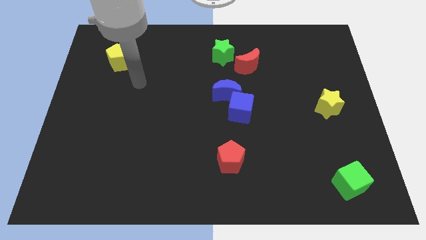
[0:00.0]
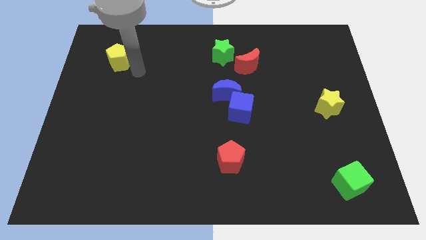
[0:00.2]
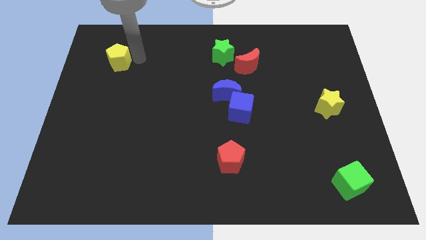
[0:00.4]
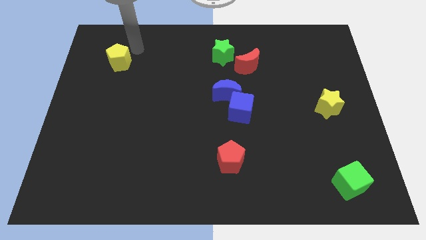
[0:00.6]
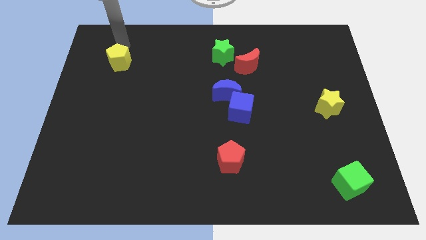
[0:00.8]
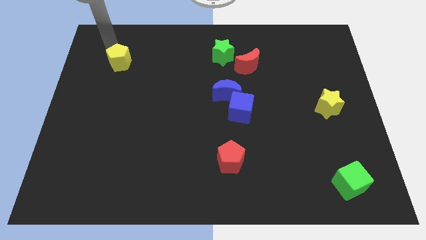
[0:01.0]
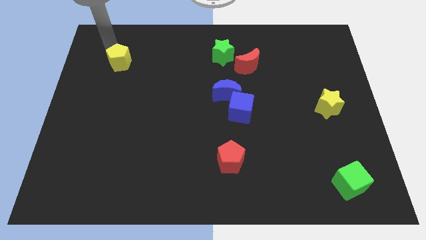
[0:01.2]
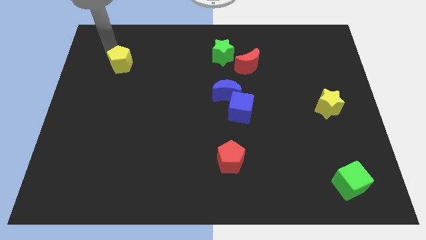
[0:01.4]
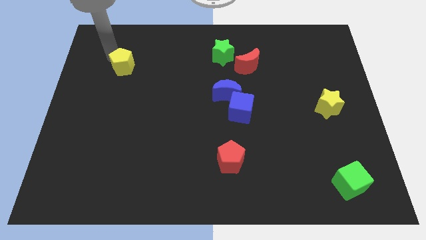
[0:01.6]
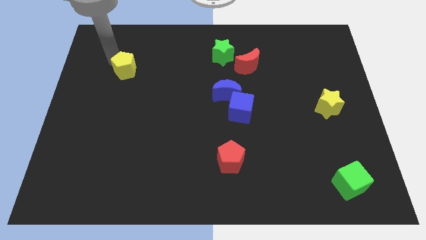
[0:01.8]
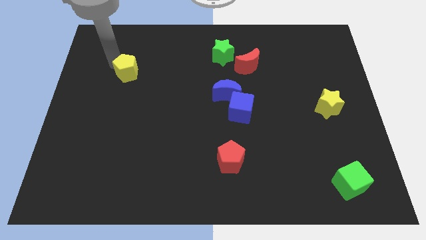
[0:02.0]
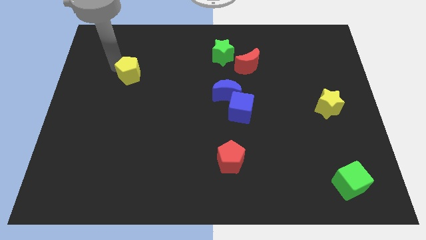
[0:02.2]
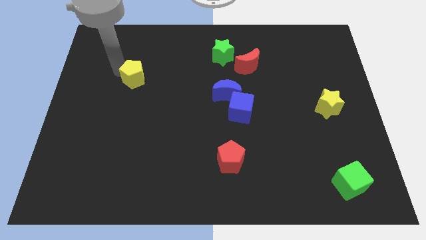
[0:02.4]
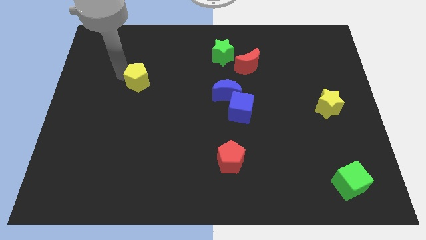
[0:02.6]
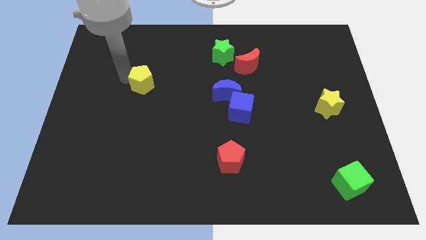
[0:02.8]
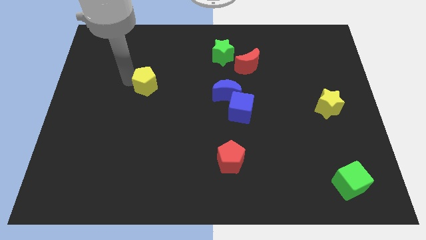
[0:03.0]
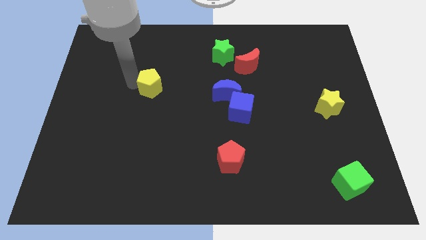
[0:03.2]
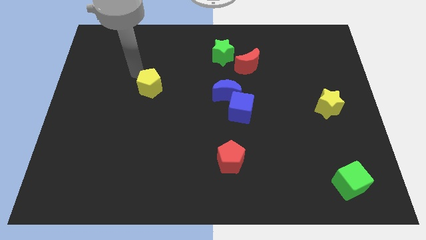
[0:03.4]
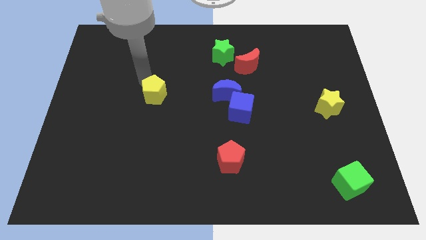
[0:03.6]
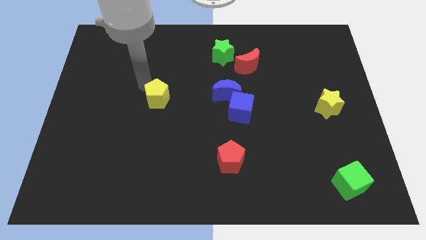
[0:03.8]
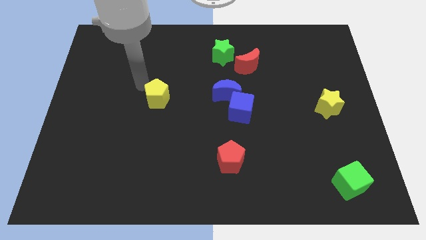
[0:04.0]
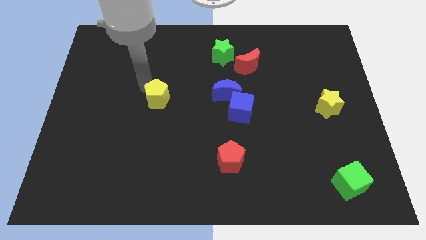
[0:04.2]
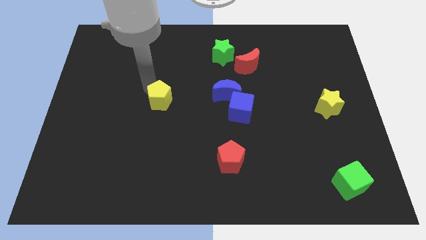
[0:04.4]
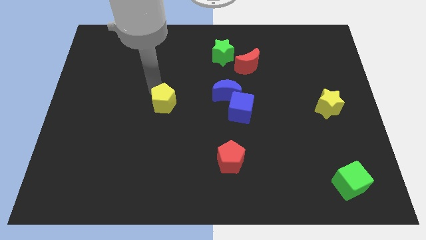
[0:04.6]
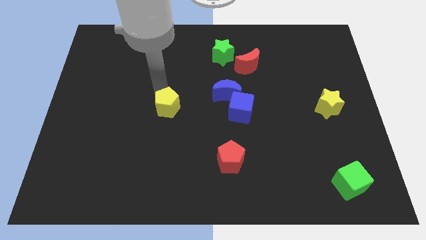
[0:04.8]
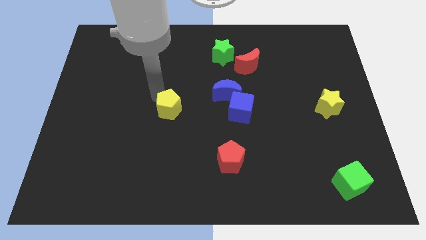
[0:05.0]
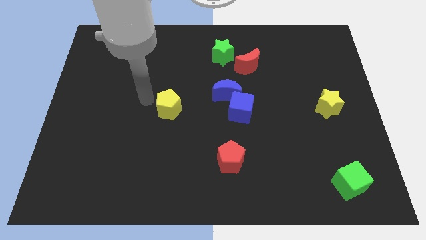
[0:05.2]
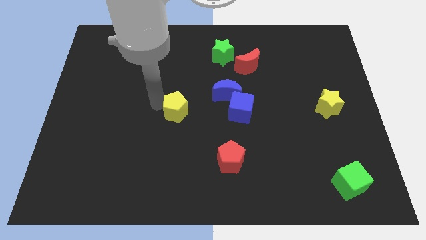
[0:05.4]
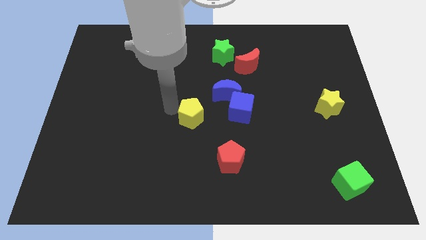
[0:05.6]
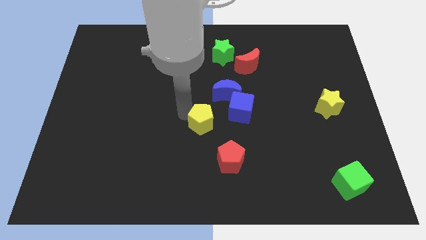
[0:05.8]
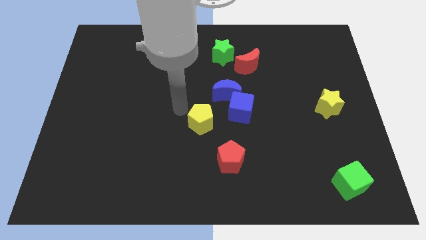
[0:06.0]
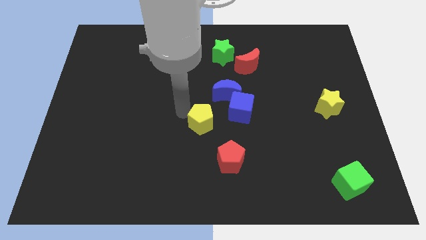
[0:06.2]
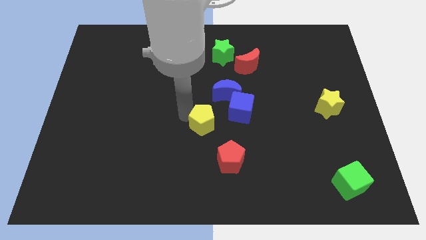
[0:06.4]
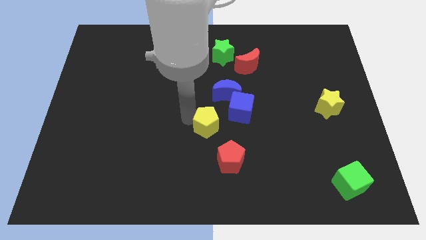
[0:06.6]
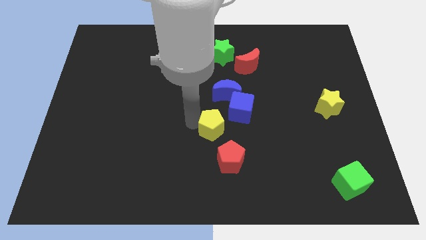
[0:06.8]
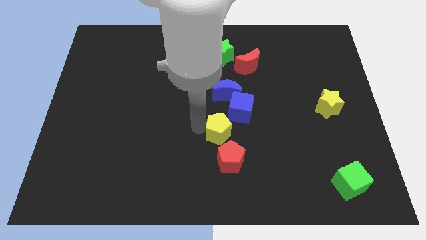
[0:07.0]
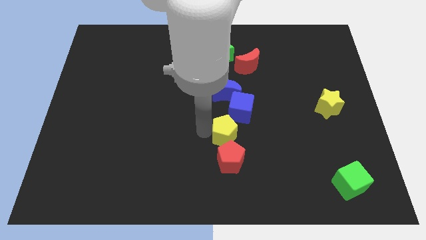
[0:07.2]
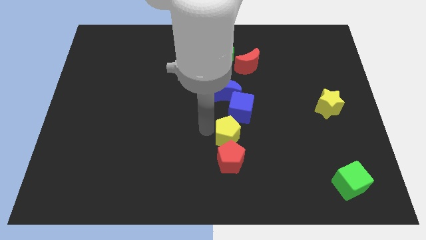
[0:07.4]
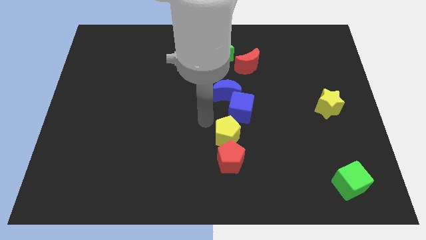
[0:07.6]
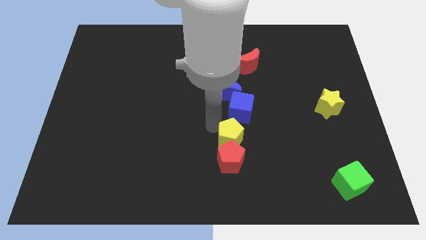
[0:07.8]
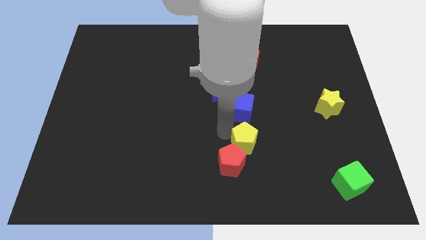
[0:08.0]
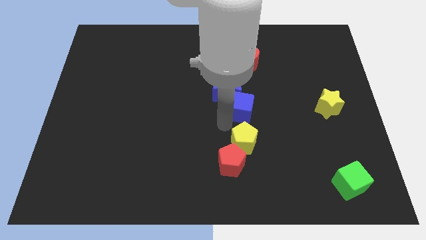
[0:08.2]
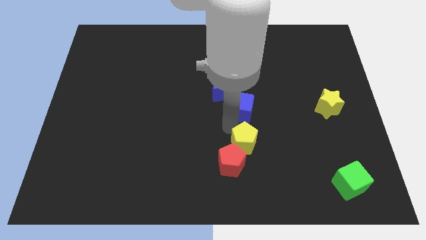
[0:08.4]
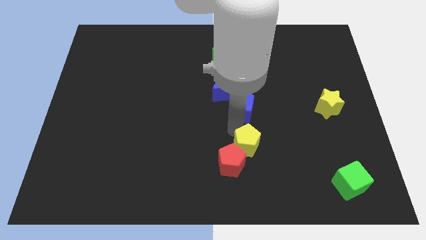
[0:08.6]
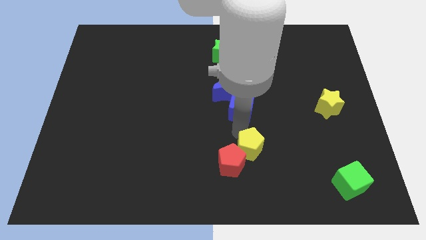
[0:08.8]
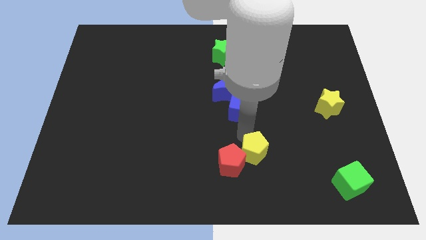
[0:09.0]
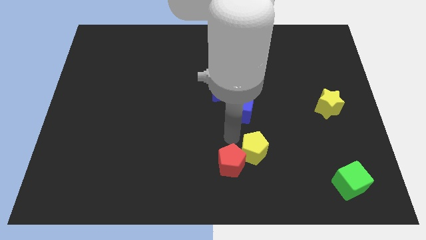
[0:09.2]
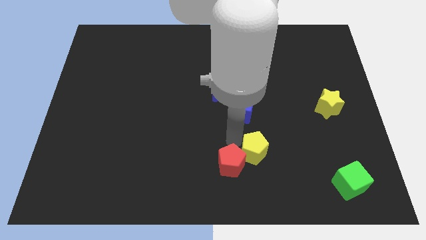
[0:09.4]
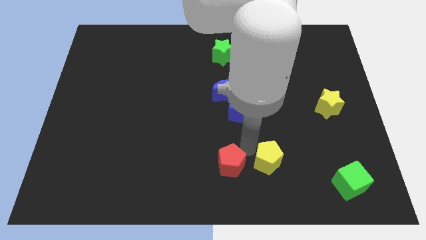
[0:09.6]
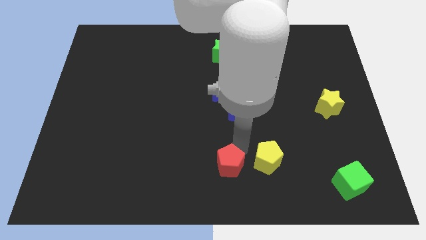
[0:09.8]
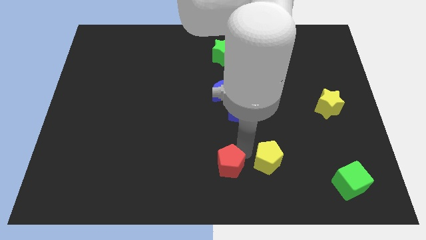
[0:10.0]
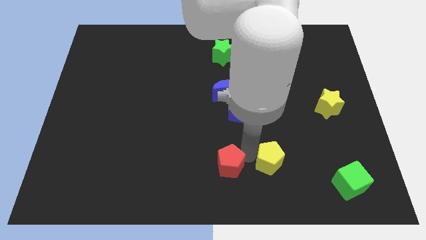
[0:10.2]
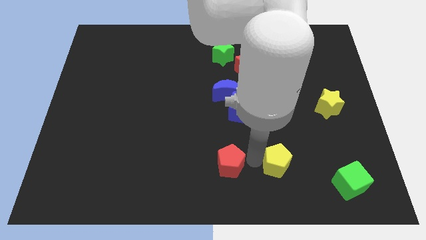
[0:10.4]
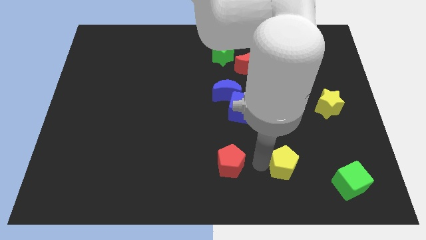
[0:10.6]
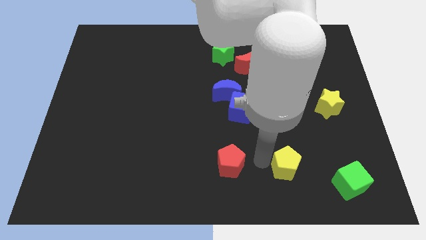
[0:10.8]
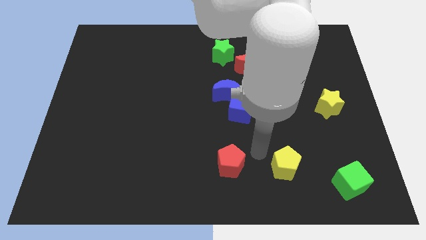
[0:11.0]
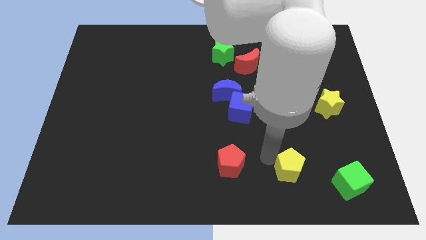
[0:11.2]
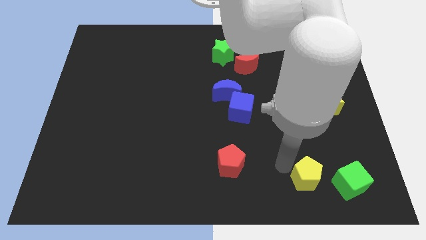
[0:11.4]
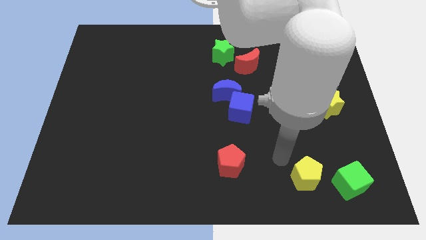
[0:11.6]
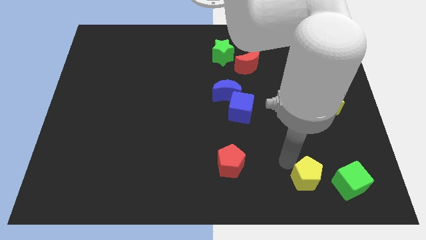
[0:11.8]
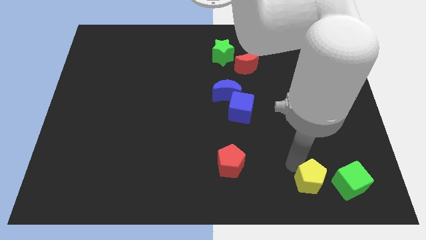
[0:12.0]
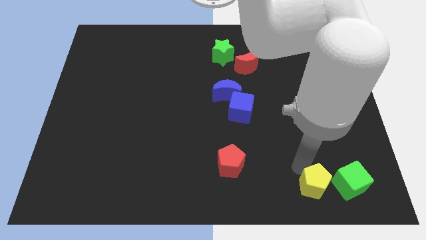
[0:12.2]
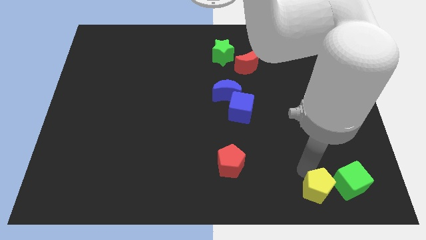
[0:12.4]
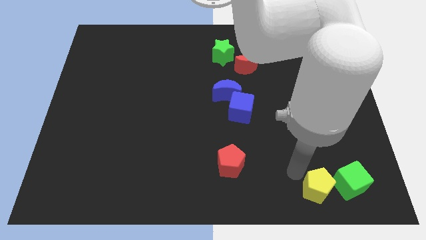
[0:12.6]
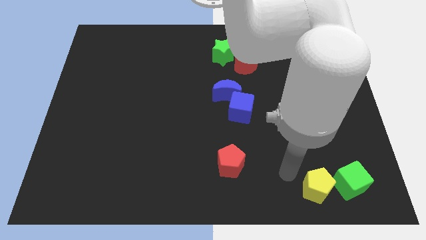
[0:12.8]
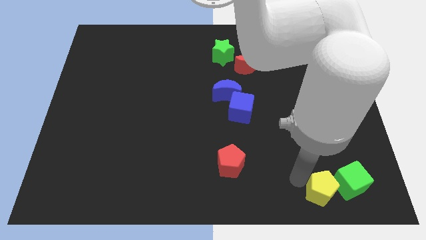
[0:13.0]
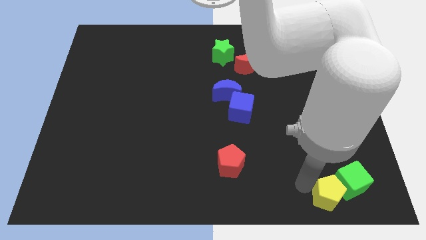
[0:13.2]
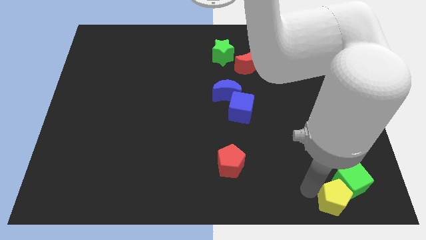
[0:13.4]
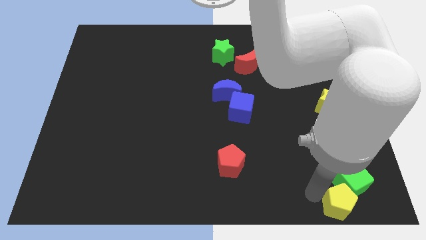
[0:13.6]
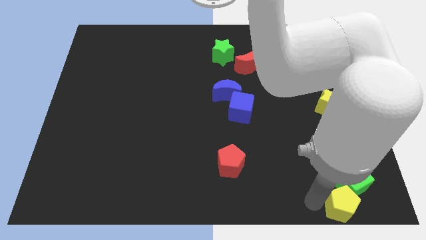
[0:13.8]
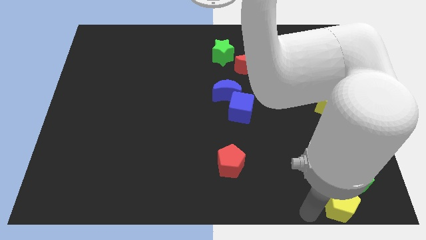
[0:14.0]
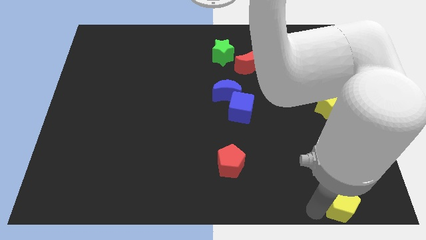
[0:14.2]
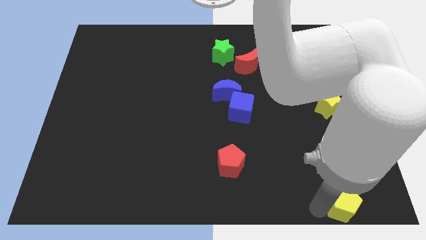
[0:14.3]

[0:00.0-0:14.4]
slide the yellow pentagon to the bottom right corner
